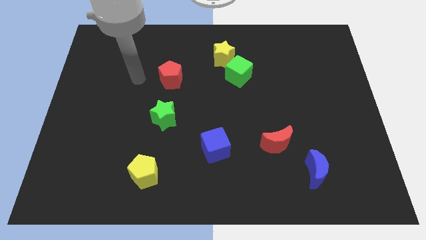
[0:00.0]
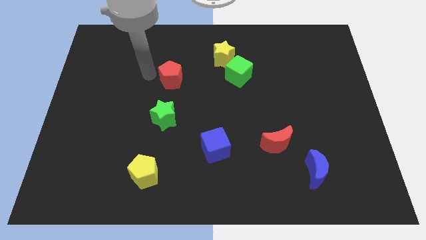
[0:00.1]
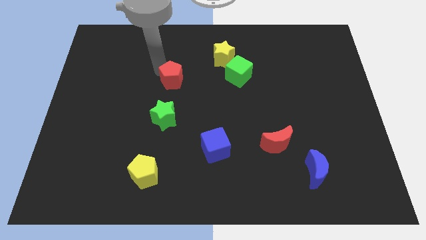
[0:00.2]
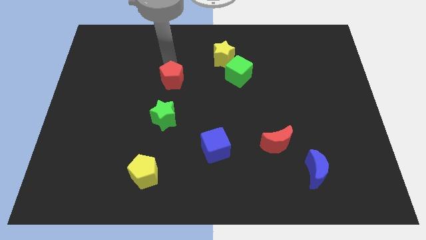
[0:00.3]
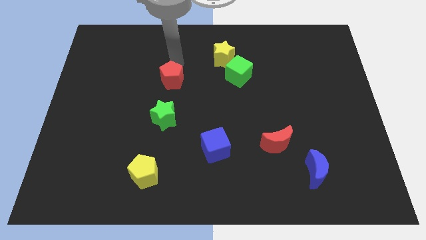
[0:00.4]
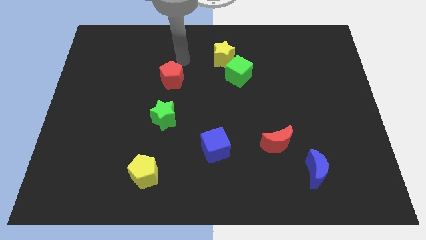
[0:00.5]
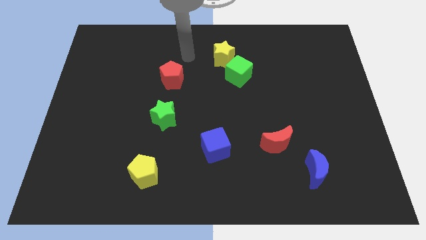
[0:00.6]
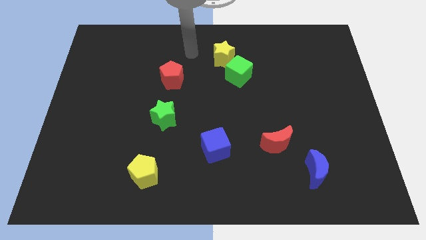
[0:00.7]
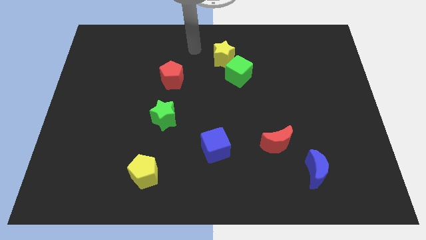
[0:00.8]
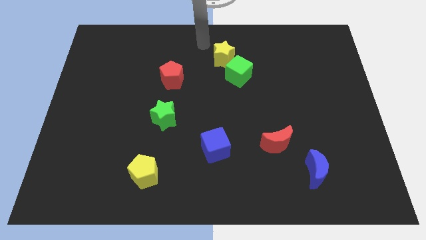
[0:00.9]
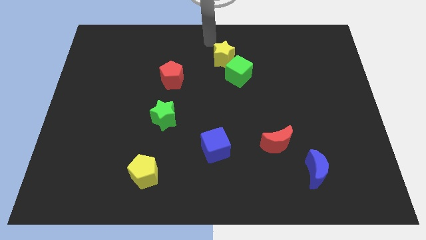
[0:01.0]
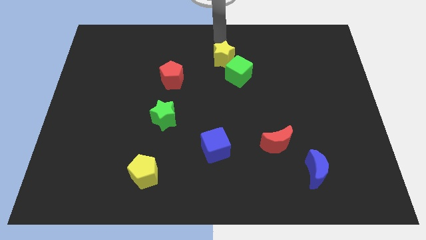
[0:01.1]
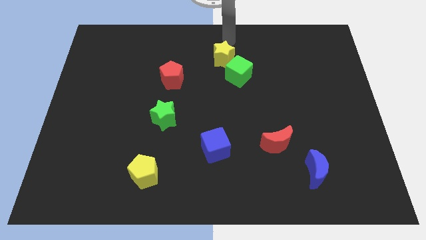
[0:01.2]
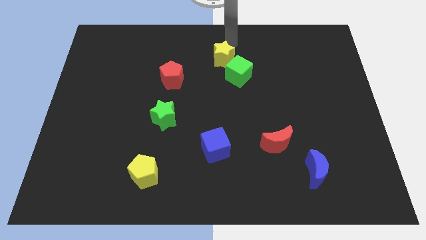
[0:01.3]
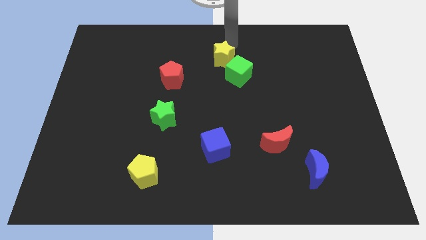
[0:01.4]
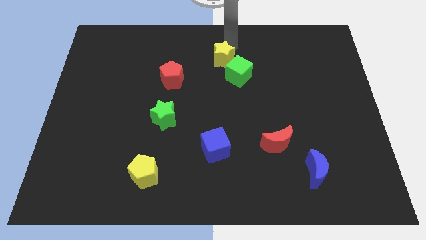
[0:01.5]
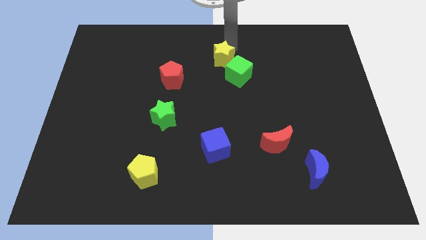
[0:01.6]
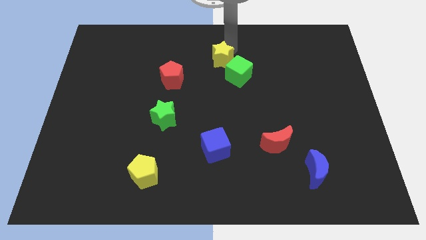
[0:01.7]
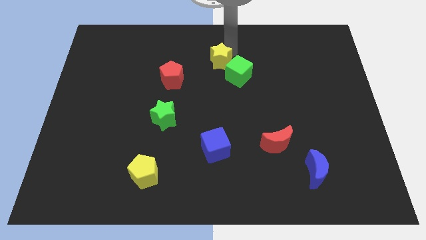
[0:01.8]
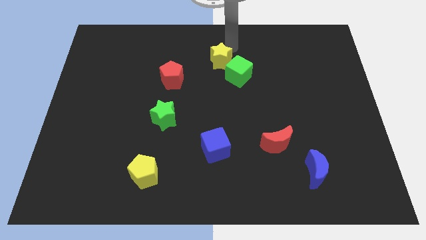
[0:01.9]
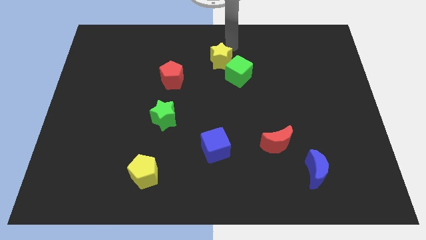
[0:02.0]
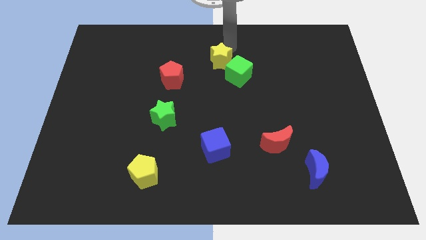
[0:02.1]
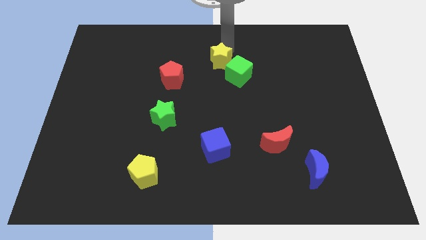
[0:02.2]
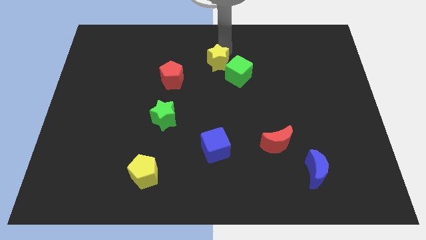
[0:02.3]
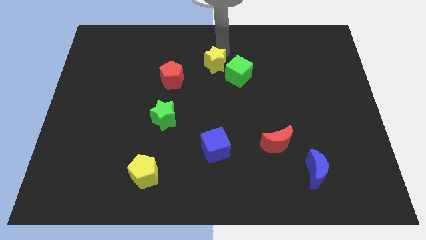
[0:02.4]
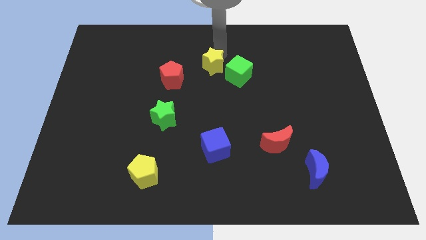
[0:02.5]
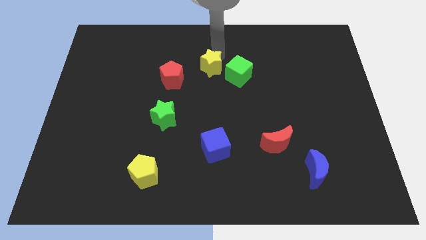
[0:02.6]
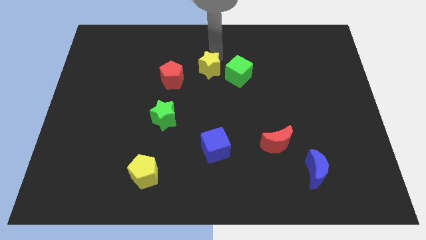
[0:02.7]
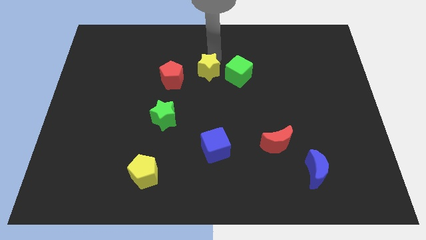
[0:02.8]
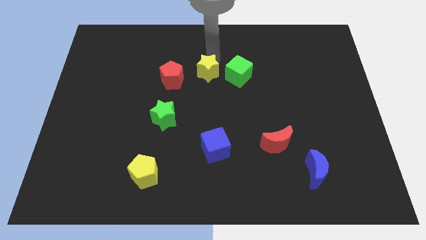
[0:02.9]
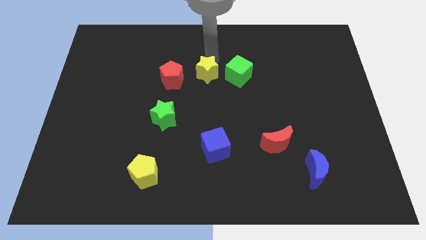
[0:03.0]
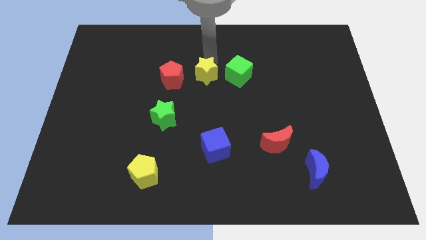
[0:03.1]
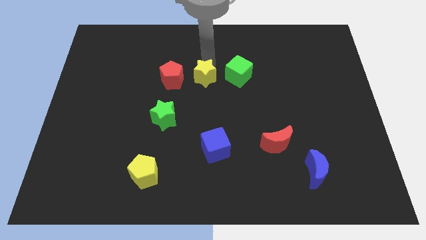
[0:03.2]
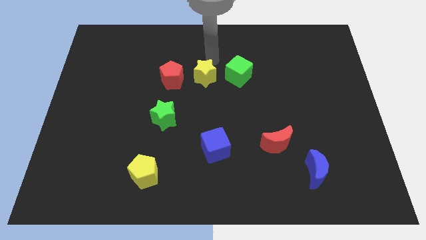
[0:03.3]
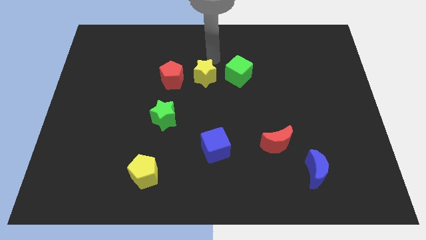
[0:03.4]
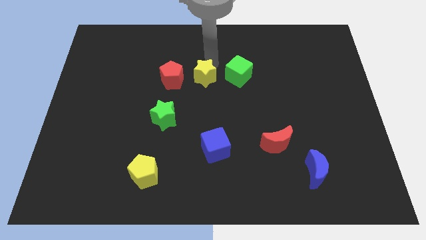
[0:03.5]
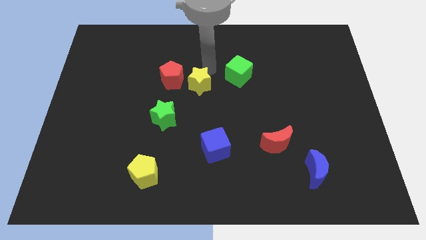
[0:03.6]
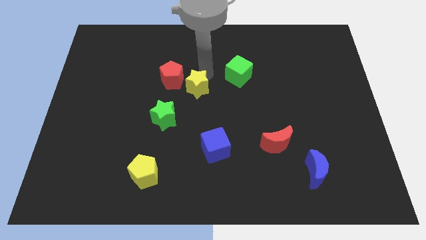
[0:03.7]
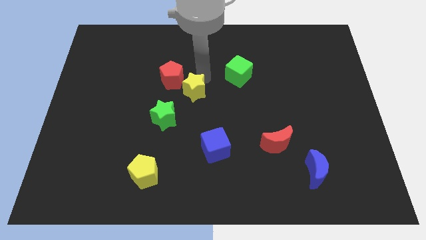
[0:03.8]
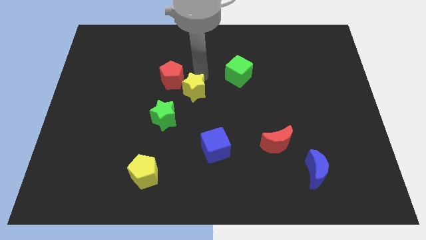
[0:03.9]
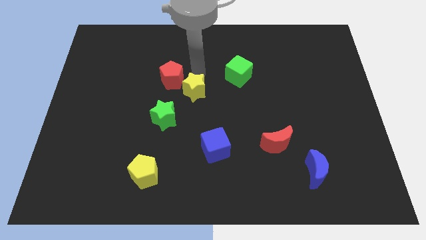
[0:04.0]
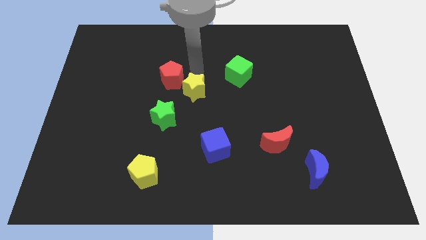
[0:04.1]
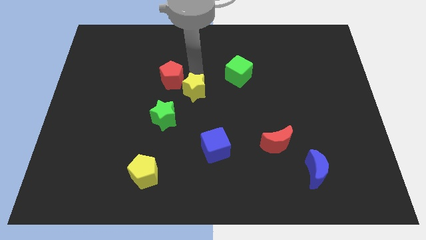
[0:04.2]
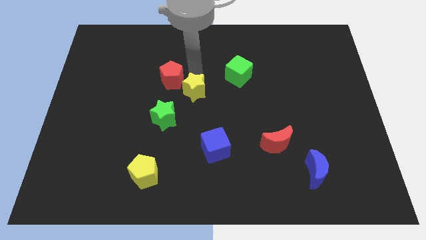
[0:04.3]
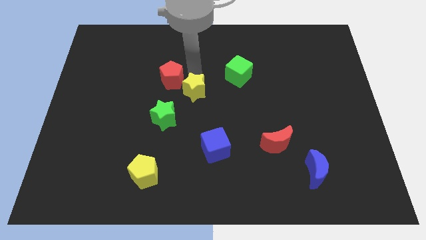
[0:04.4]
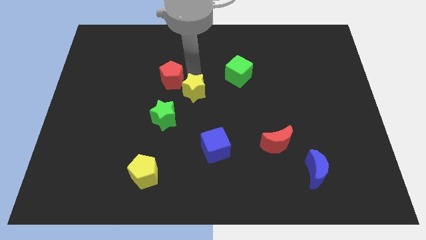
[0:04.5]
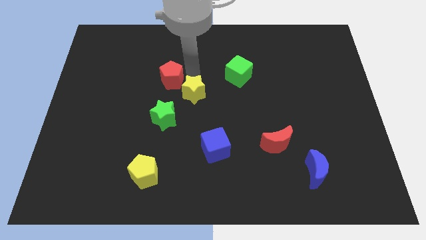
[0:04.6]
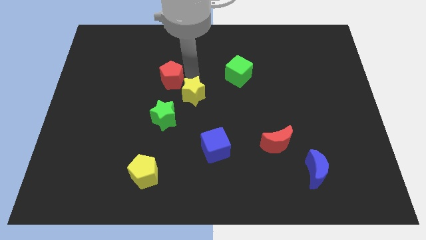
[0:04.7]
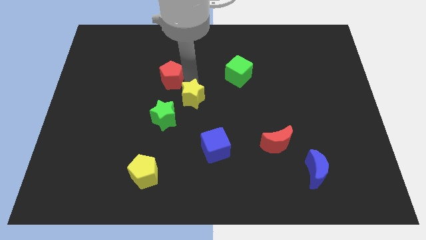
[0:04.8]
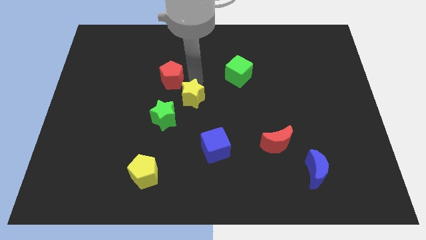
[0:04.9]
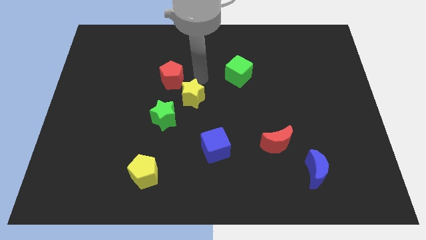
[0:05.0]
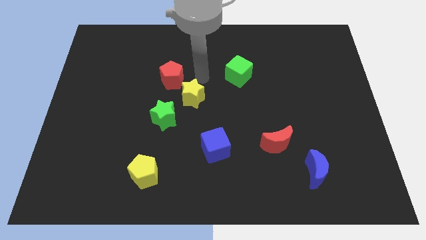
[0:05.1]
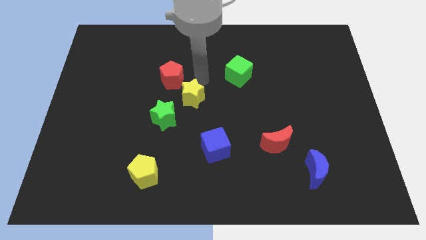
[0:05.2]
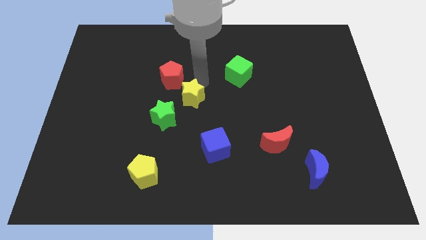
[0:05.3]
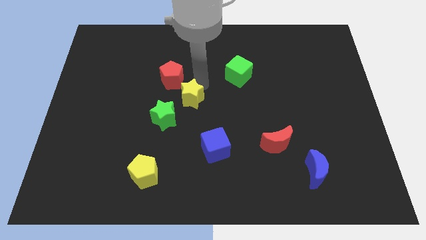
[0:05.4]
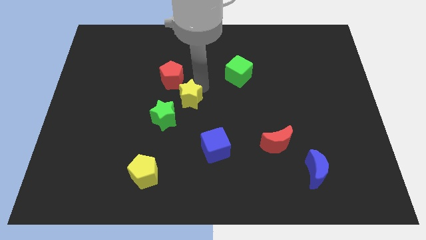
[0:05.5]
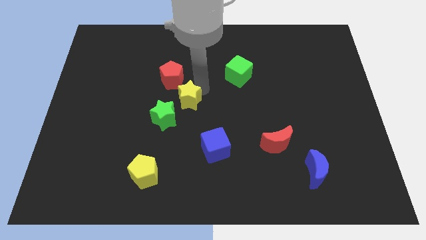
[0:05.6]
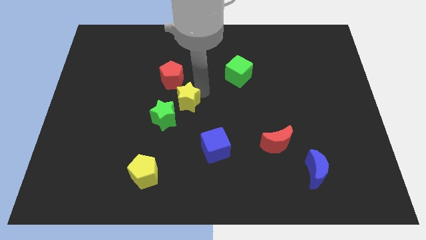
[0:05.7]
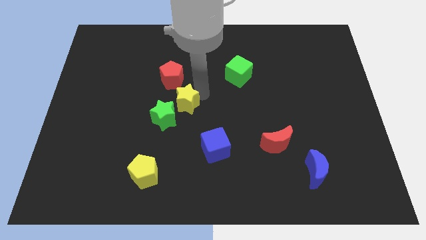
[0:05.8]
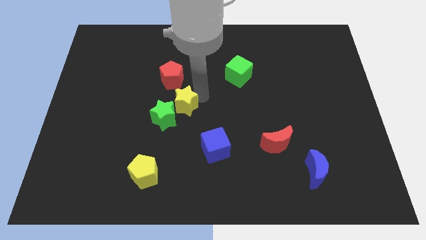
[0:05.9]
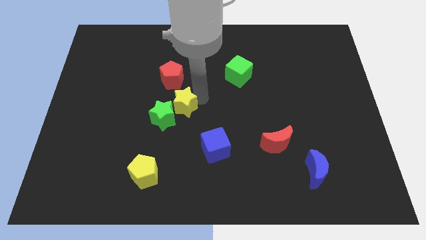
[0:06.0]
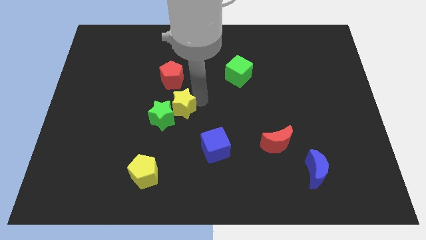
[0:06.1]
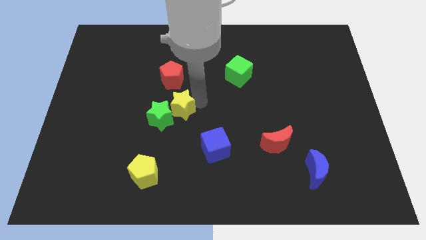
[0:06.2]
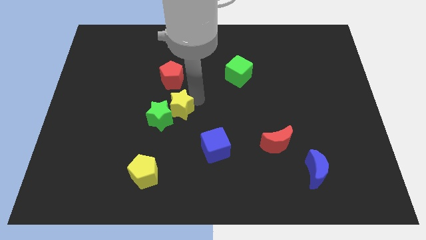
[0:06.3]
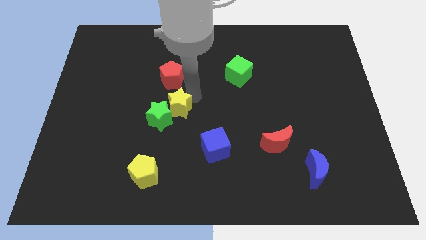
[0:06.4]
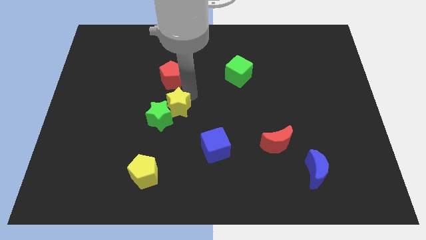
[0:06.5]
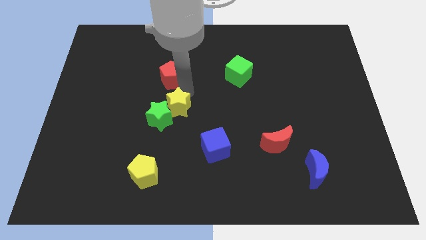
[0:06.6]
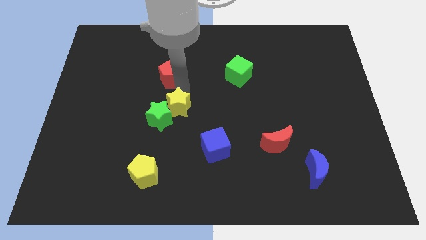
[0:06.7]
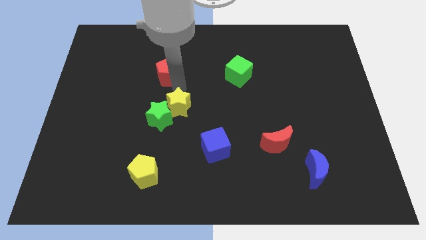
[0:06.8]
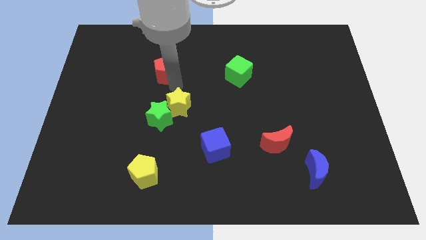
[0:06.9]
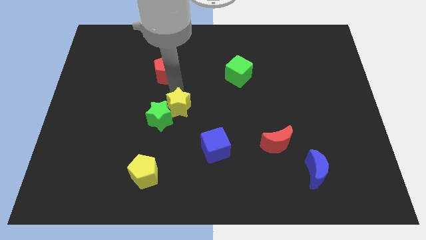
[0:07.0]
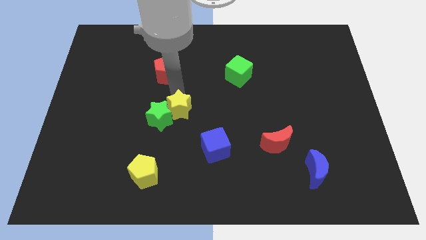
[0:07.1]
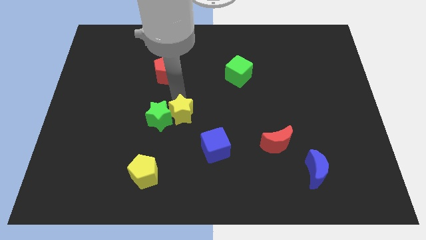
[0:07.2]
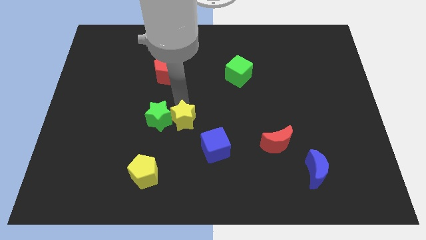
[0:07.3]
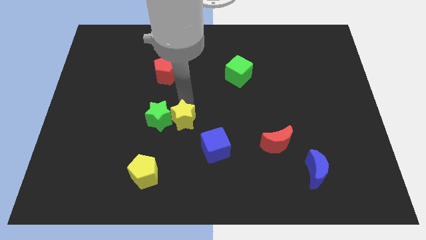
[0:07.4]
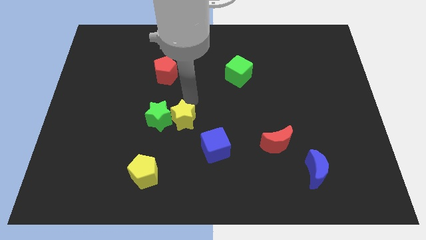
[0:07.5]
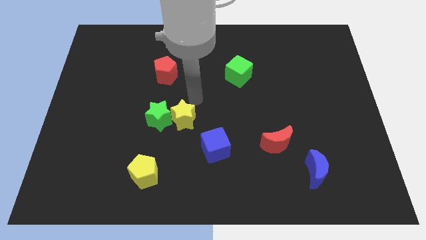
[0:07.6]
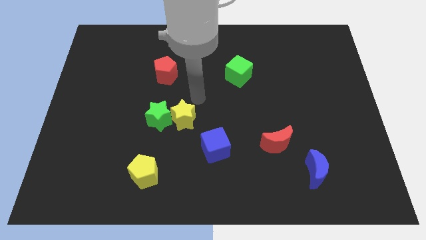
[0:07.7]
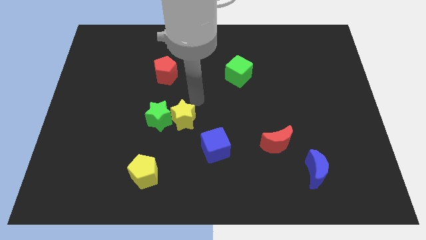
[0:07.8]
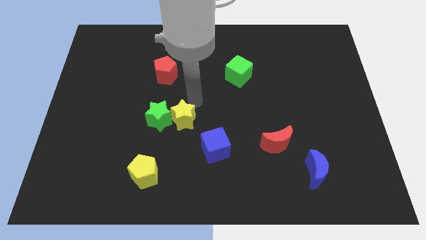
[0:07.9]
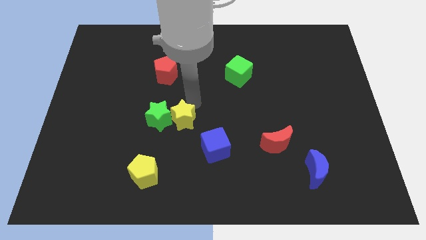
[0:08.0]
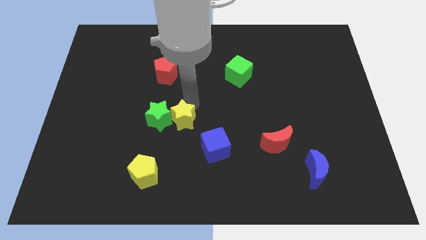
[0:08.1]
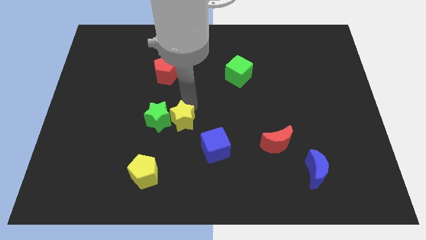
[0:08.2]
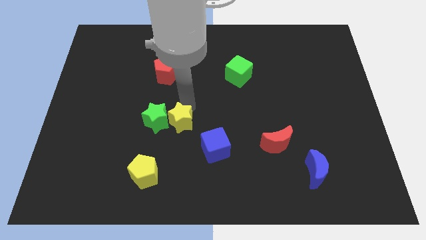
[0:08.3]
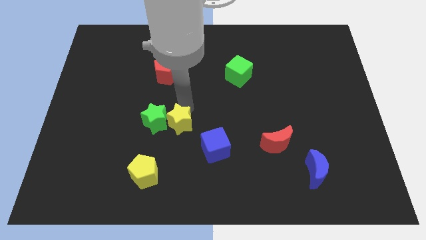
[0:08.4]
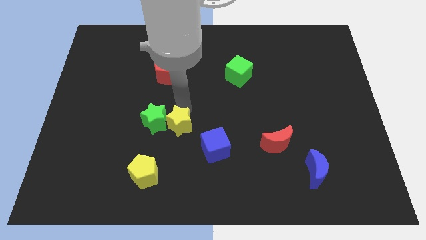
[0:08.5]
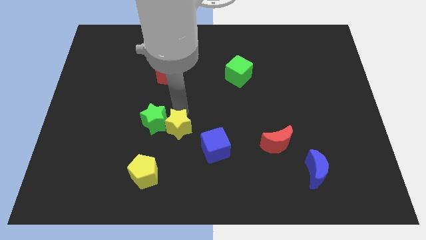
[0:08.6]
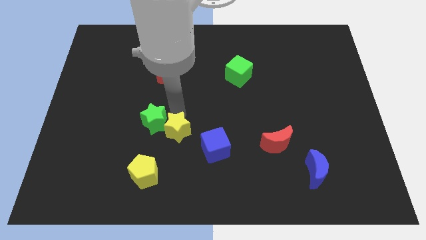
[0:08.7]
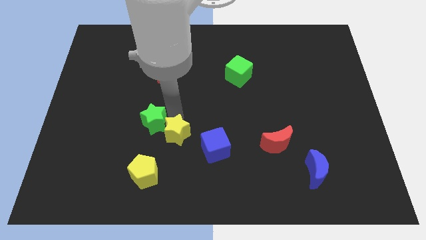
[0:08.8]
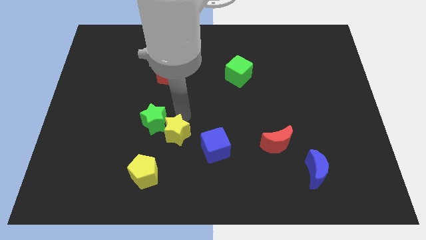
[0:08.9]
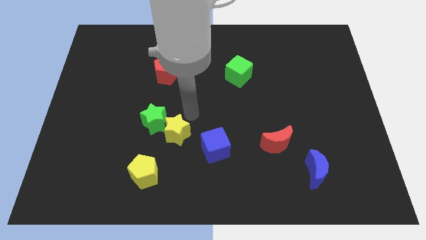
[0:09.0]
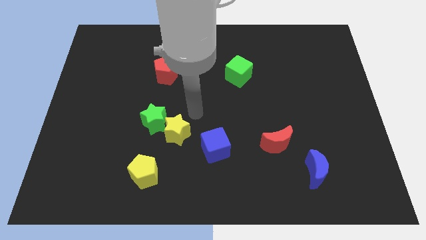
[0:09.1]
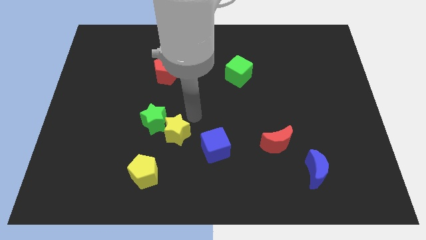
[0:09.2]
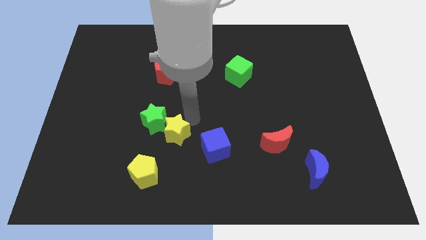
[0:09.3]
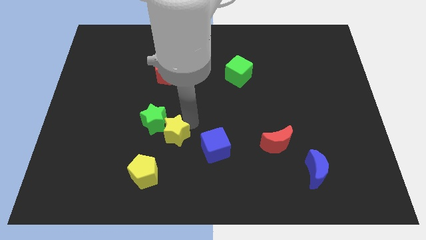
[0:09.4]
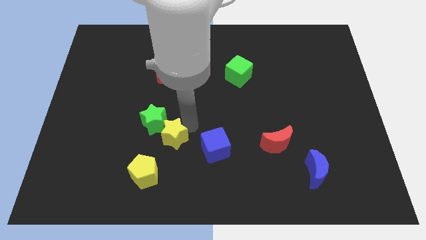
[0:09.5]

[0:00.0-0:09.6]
put the yellow star to the bottom of the green star
